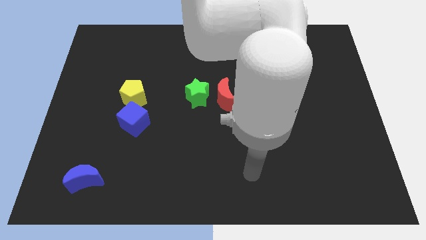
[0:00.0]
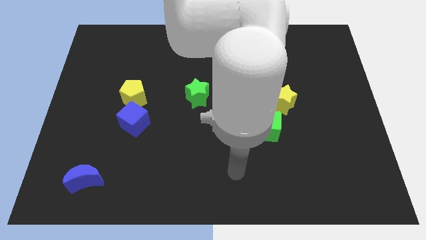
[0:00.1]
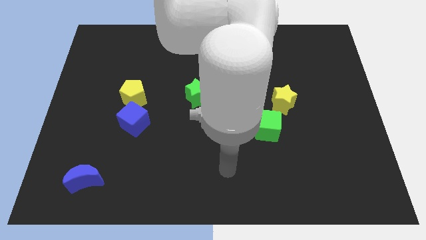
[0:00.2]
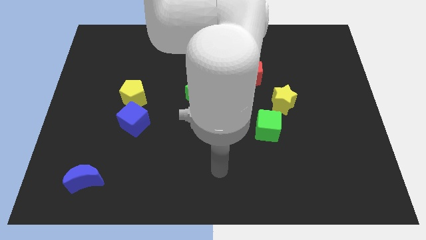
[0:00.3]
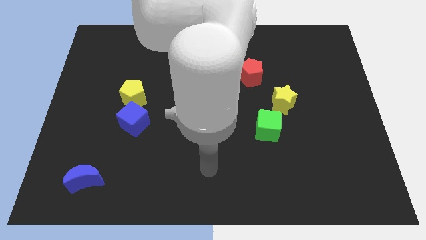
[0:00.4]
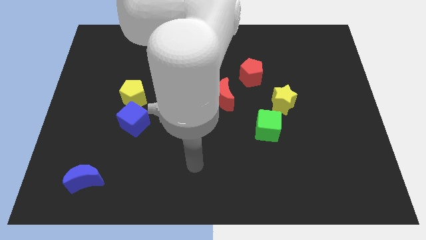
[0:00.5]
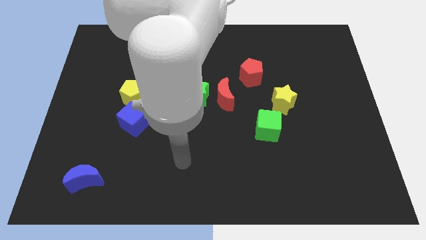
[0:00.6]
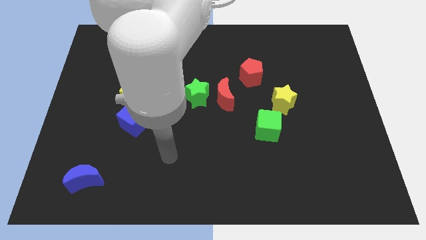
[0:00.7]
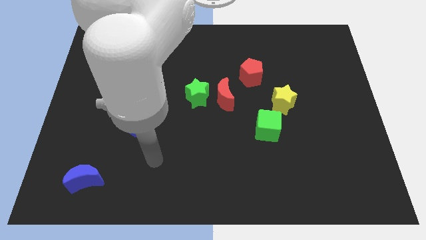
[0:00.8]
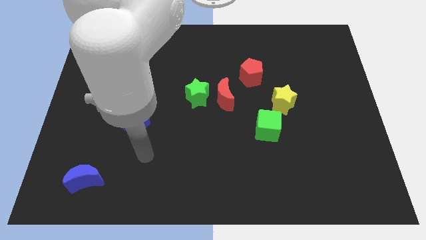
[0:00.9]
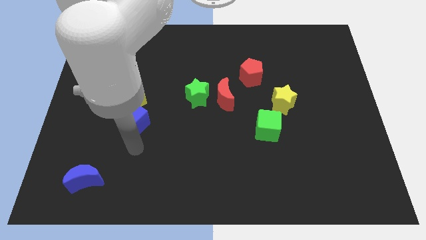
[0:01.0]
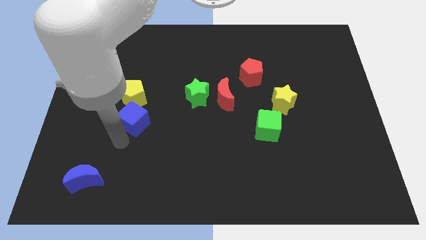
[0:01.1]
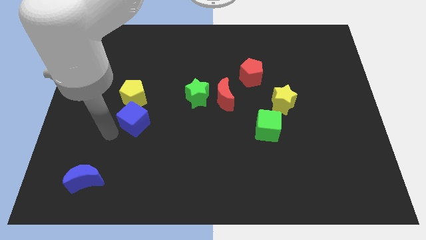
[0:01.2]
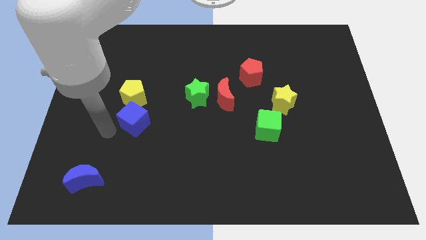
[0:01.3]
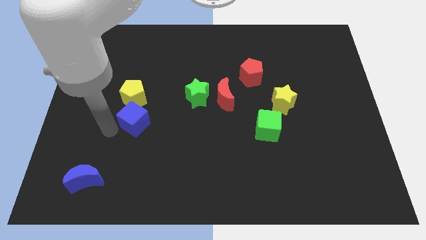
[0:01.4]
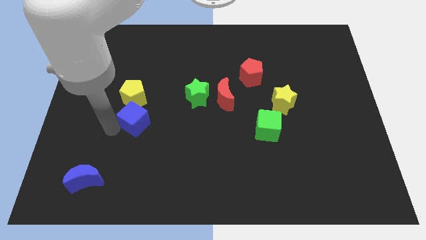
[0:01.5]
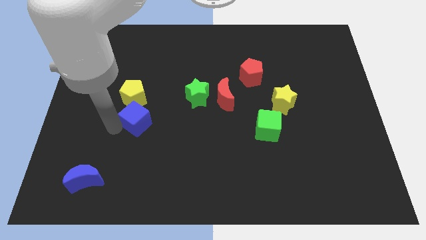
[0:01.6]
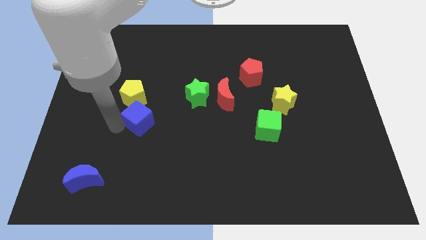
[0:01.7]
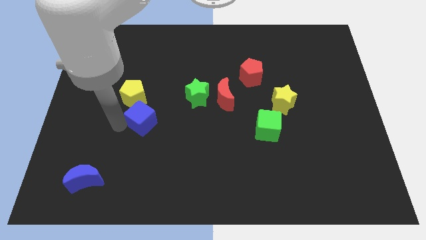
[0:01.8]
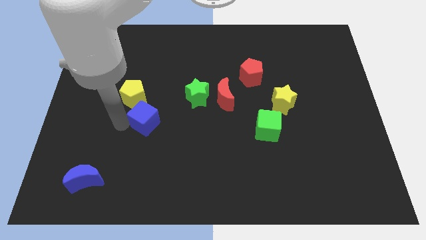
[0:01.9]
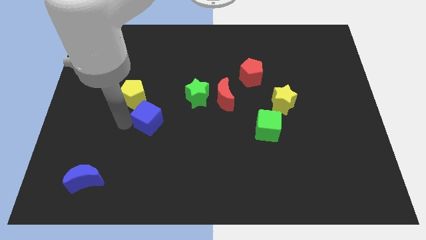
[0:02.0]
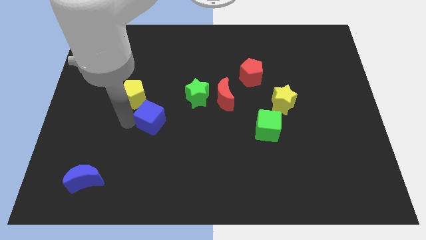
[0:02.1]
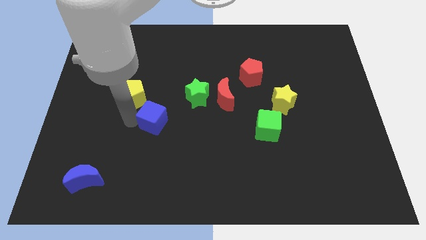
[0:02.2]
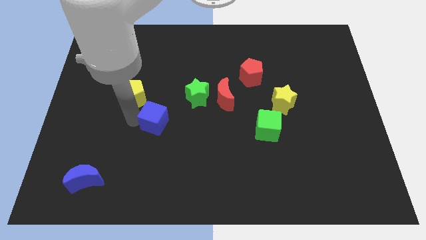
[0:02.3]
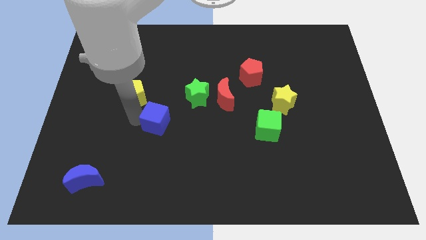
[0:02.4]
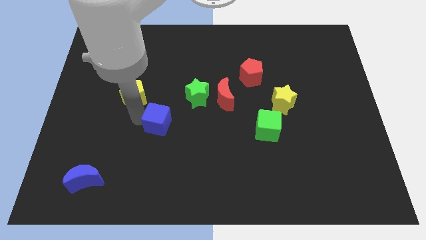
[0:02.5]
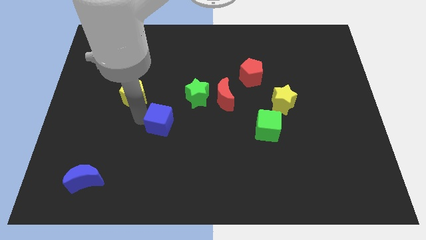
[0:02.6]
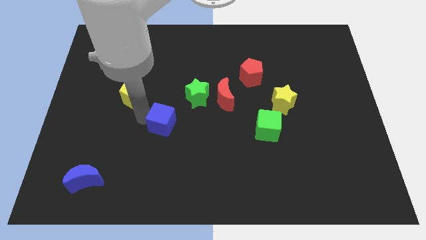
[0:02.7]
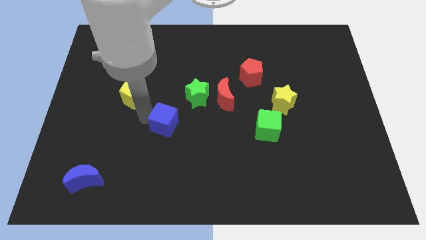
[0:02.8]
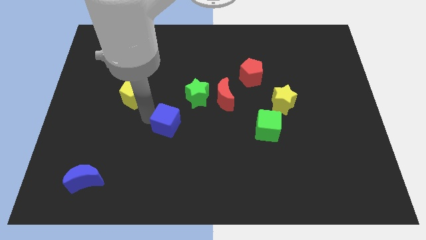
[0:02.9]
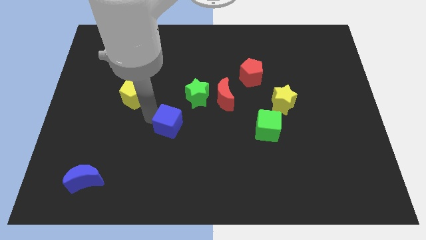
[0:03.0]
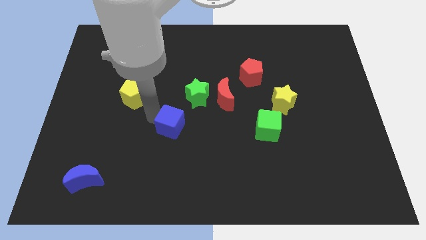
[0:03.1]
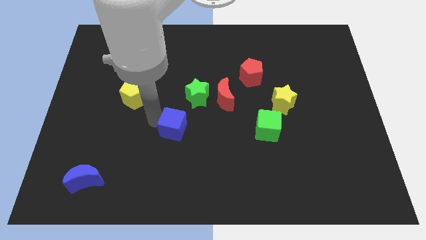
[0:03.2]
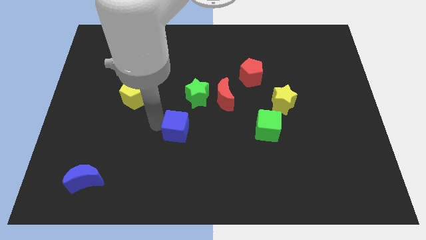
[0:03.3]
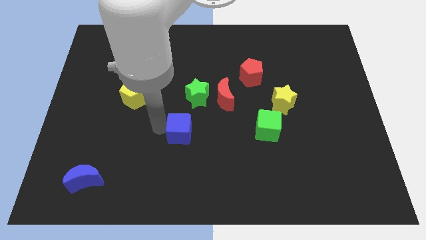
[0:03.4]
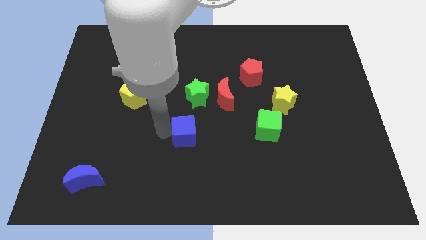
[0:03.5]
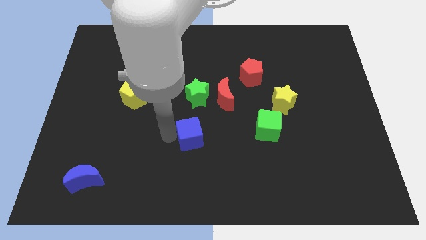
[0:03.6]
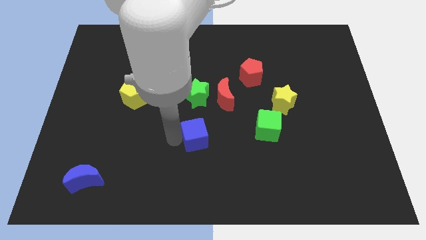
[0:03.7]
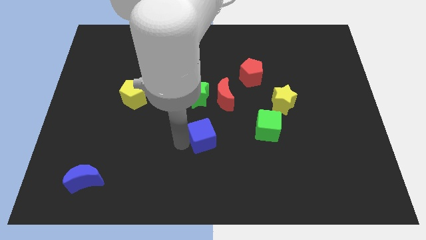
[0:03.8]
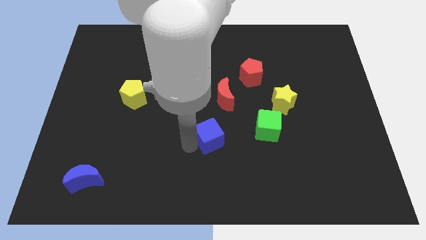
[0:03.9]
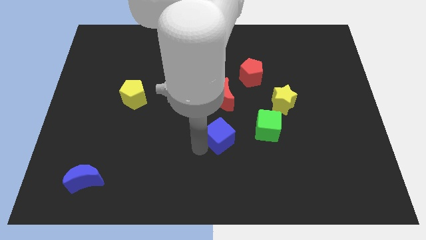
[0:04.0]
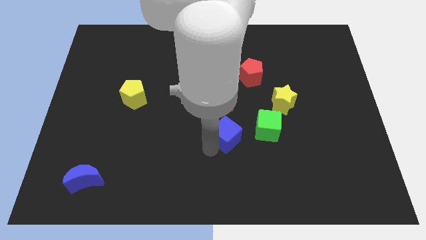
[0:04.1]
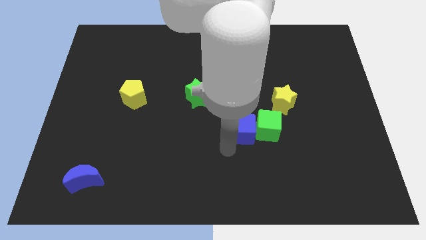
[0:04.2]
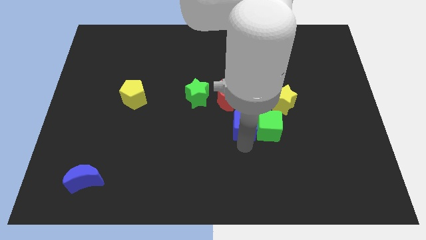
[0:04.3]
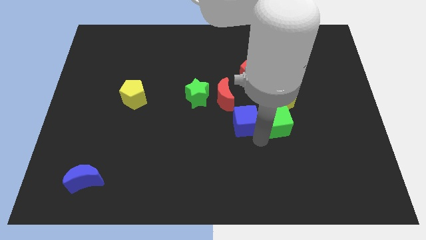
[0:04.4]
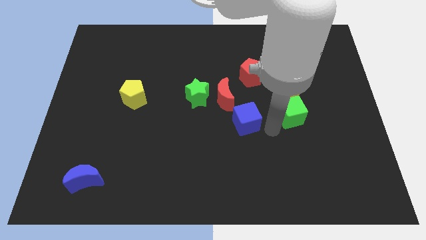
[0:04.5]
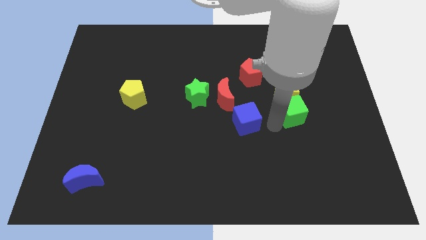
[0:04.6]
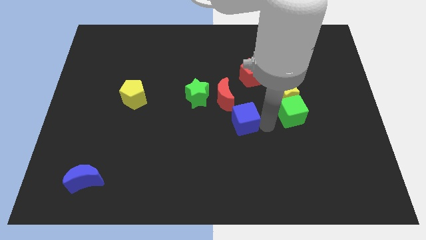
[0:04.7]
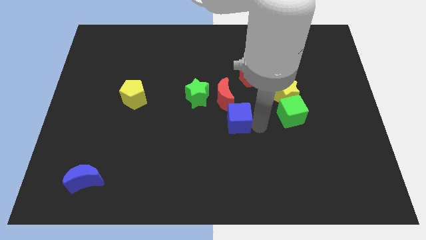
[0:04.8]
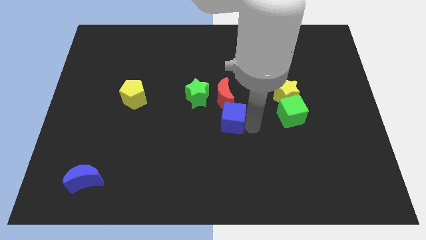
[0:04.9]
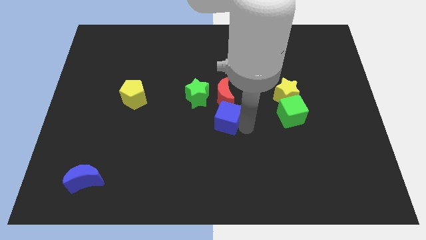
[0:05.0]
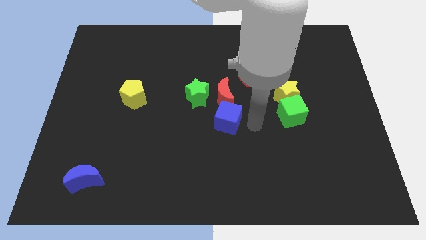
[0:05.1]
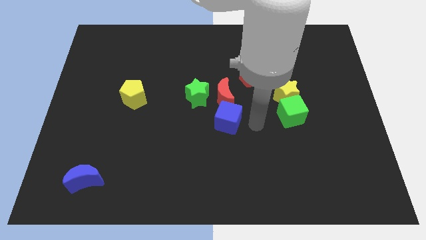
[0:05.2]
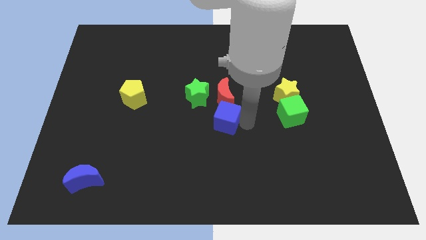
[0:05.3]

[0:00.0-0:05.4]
put the blue cube to the bottom left side of the red moon

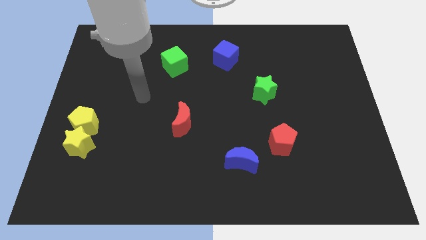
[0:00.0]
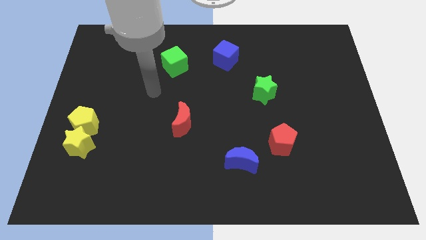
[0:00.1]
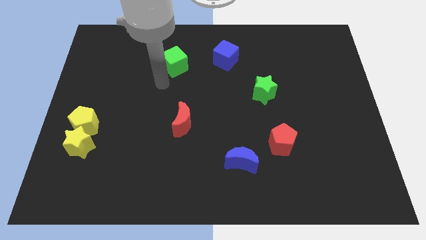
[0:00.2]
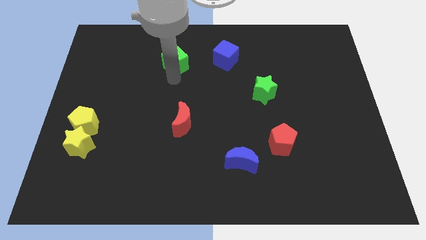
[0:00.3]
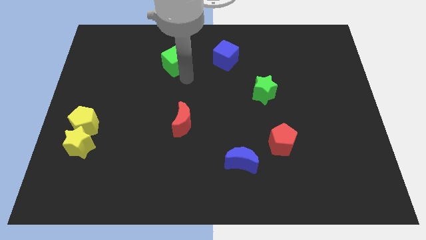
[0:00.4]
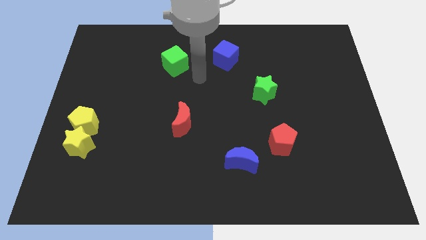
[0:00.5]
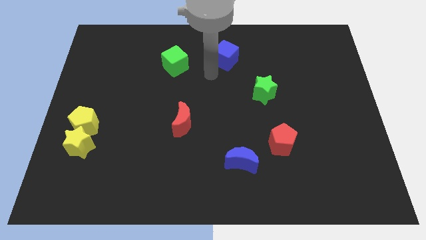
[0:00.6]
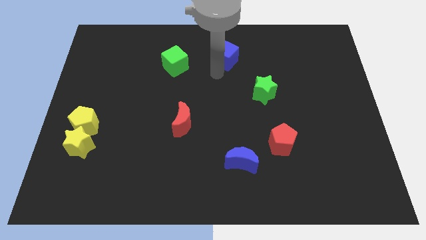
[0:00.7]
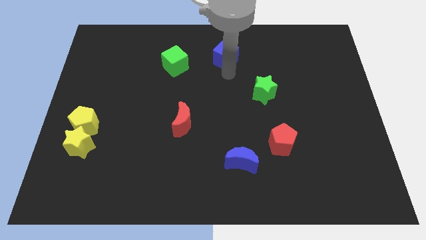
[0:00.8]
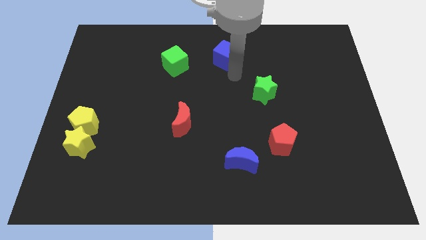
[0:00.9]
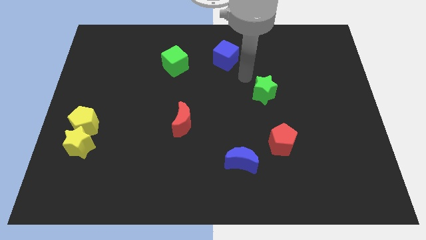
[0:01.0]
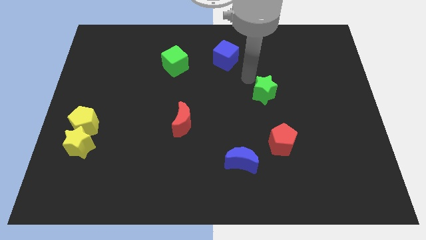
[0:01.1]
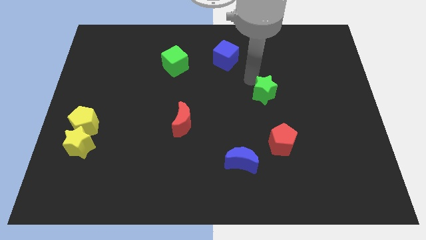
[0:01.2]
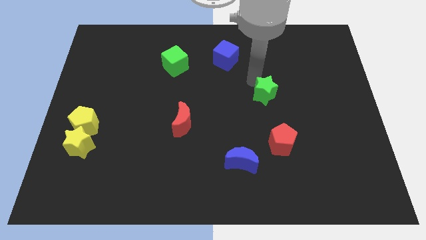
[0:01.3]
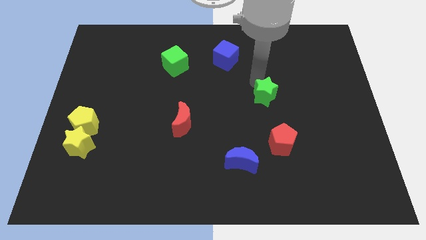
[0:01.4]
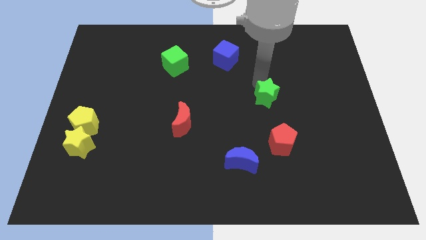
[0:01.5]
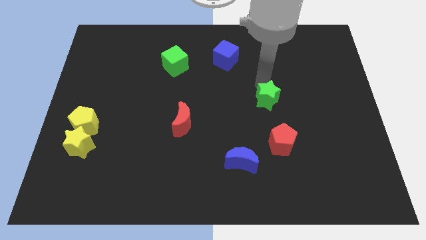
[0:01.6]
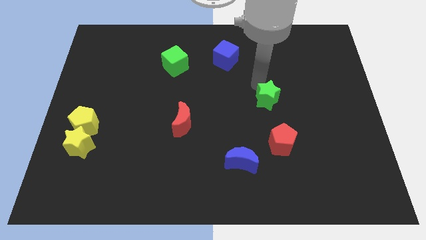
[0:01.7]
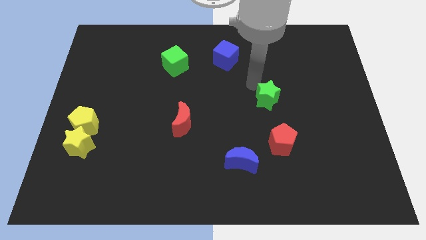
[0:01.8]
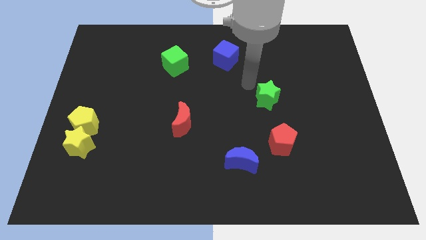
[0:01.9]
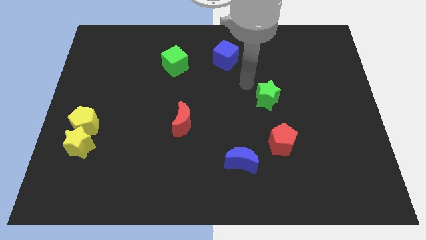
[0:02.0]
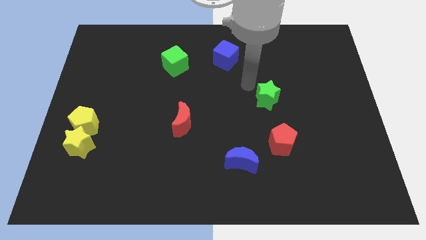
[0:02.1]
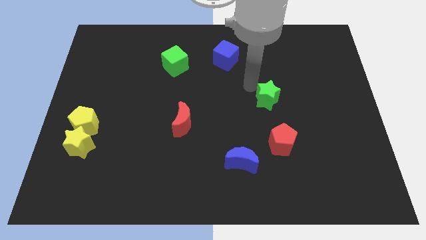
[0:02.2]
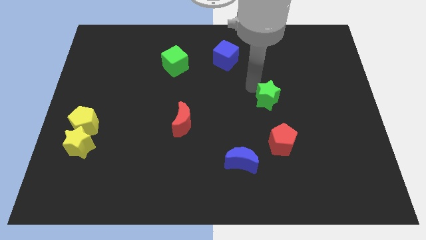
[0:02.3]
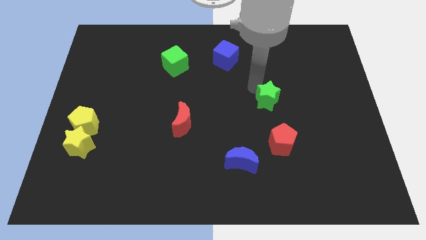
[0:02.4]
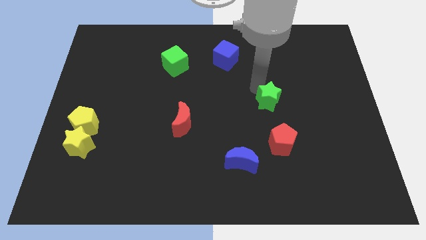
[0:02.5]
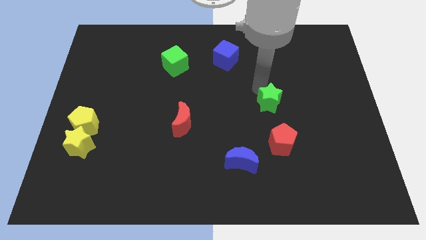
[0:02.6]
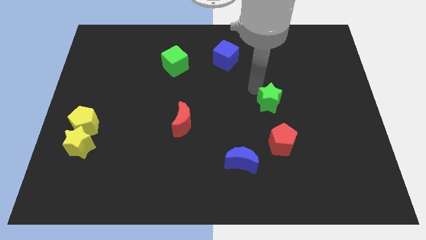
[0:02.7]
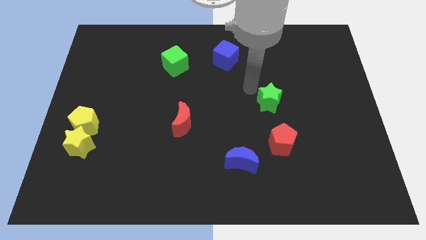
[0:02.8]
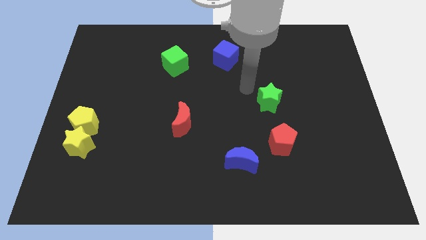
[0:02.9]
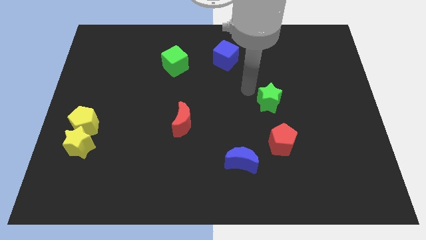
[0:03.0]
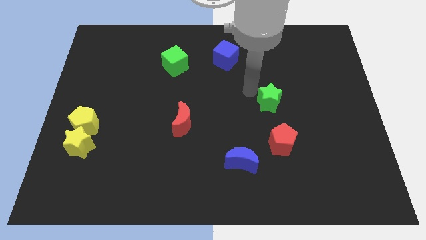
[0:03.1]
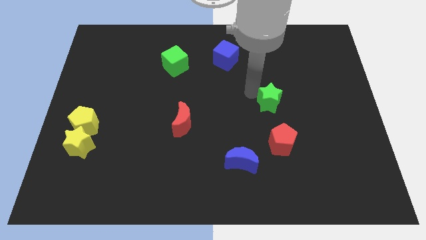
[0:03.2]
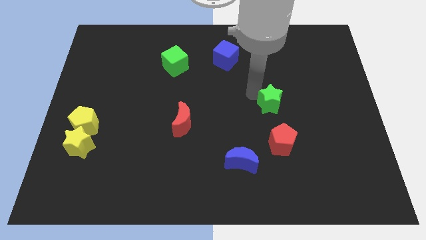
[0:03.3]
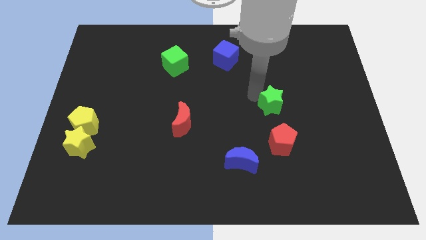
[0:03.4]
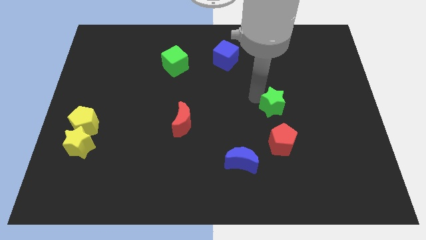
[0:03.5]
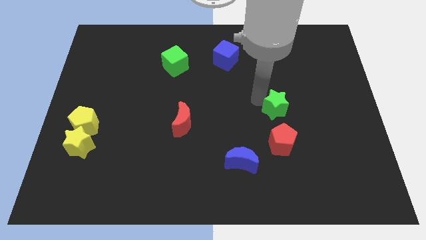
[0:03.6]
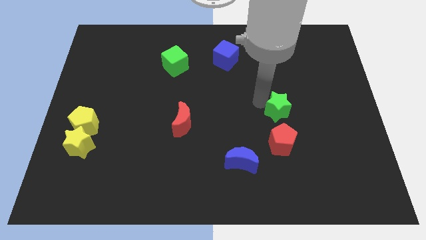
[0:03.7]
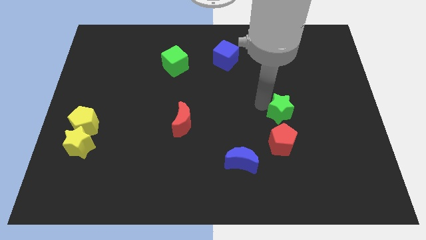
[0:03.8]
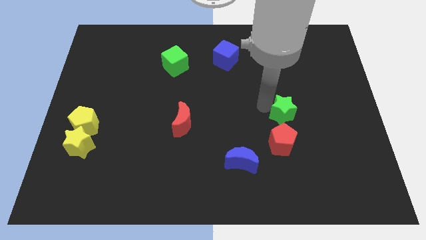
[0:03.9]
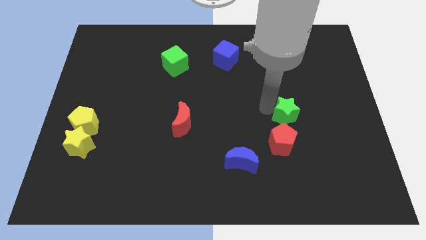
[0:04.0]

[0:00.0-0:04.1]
slide the green star to the top right of the red pentagon
